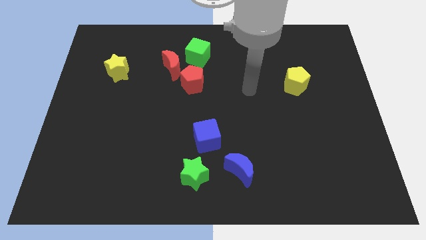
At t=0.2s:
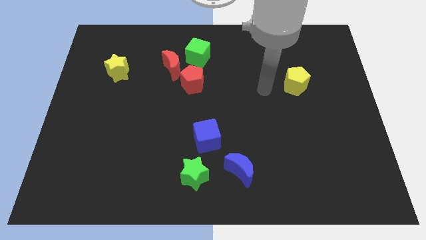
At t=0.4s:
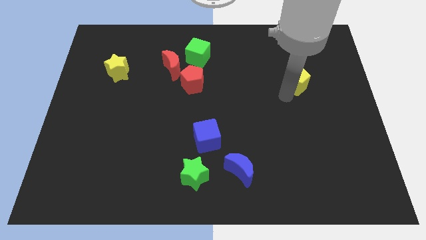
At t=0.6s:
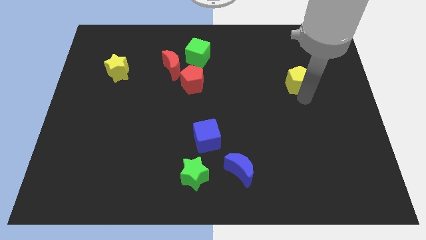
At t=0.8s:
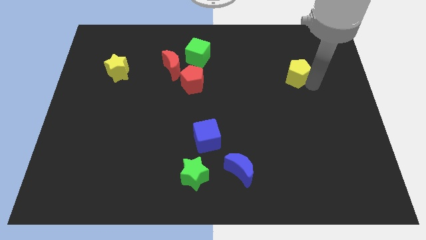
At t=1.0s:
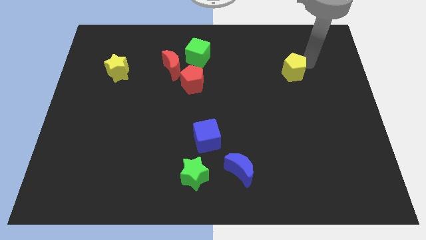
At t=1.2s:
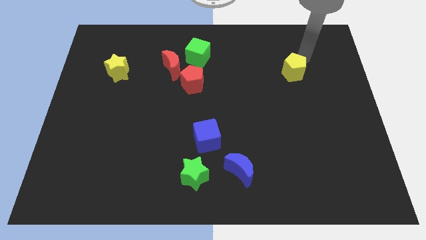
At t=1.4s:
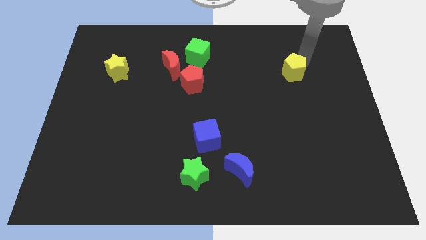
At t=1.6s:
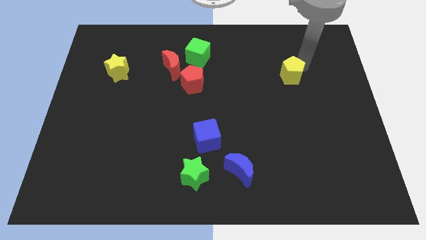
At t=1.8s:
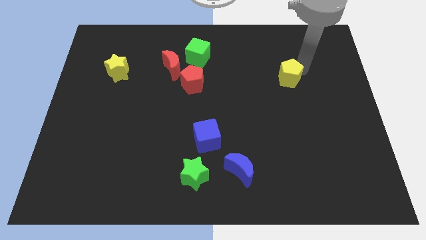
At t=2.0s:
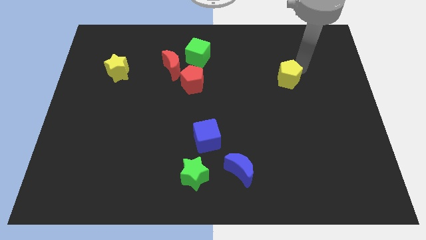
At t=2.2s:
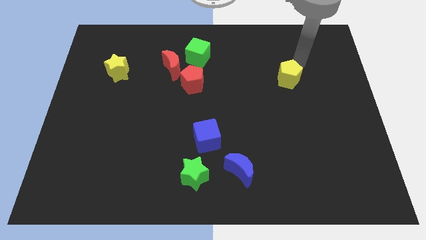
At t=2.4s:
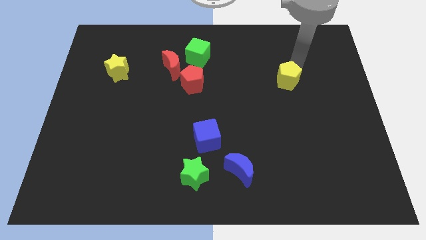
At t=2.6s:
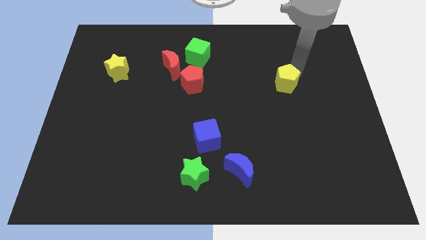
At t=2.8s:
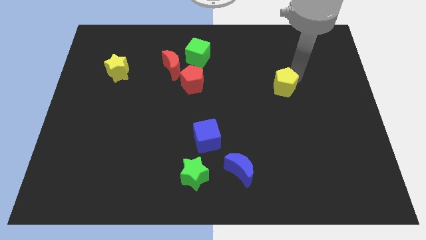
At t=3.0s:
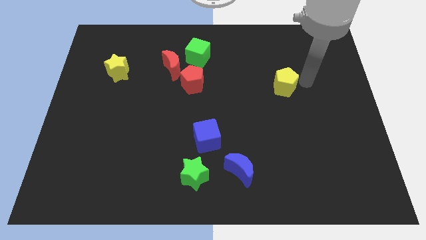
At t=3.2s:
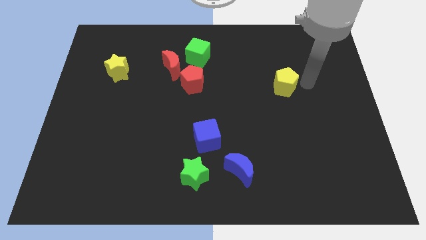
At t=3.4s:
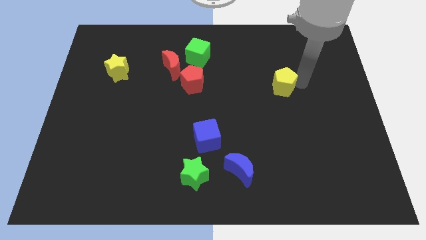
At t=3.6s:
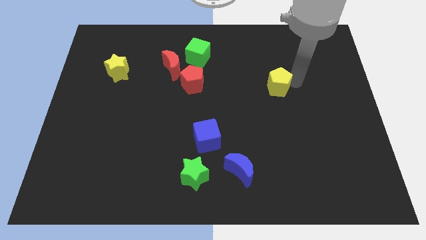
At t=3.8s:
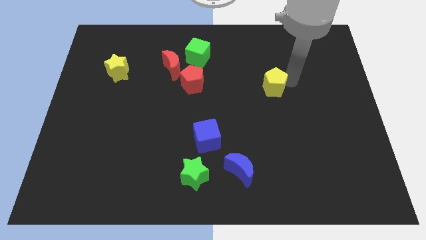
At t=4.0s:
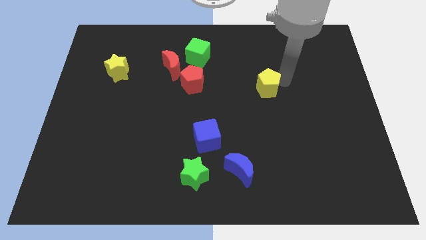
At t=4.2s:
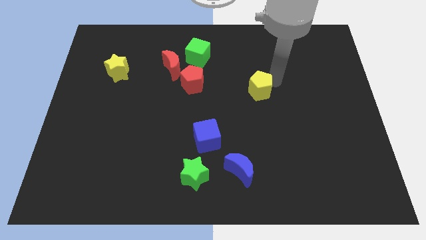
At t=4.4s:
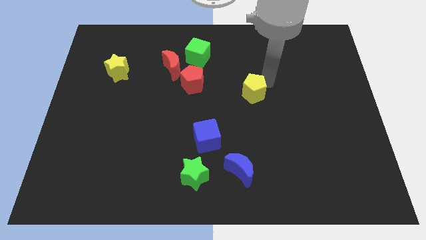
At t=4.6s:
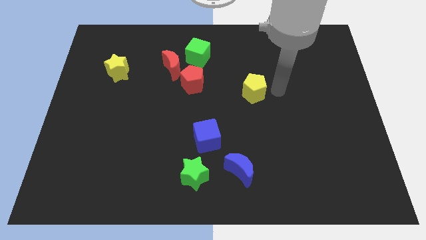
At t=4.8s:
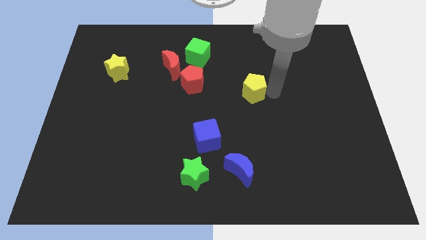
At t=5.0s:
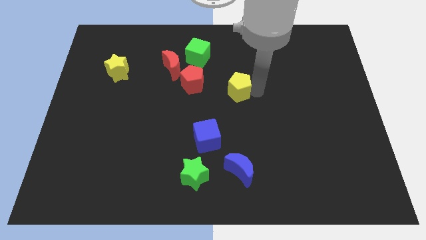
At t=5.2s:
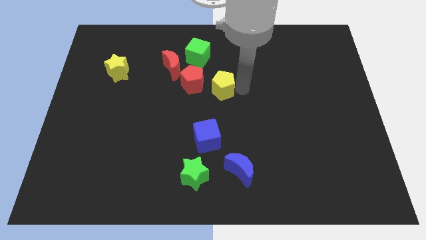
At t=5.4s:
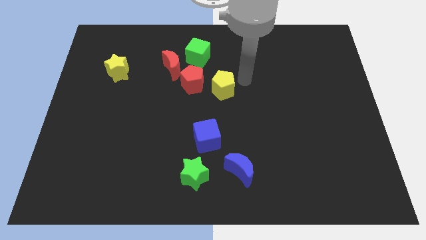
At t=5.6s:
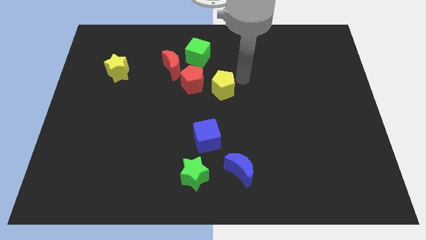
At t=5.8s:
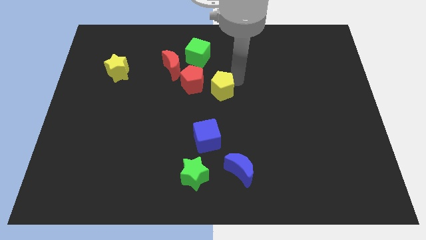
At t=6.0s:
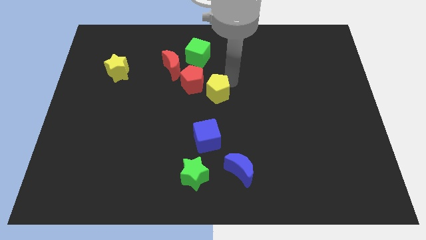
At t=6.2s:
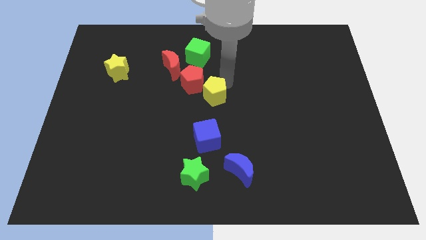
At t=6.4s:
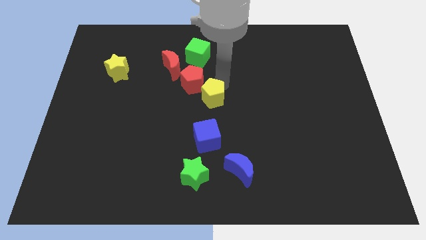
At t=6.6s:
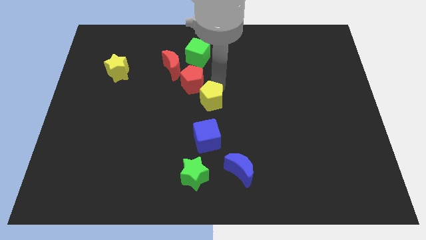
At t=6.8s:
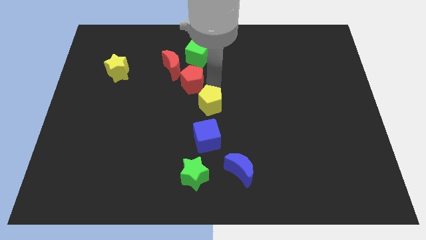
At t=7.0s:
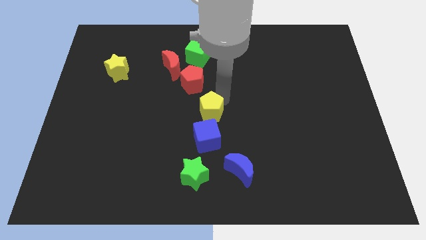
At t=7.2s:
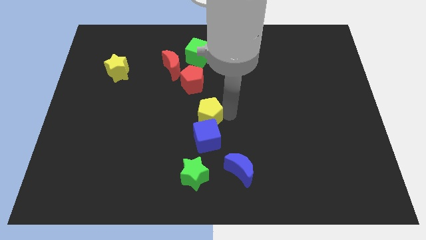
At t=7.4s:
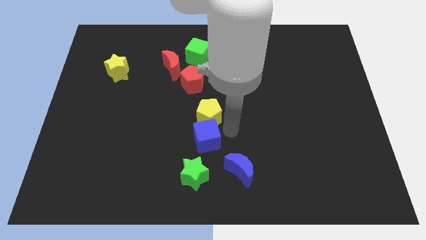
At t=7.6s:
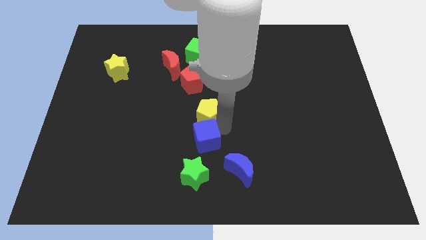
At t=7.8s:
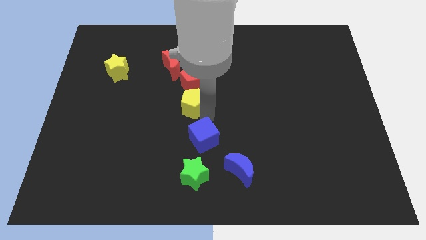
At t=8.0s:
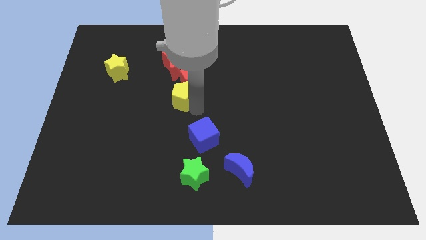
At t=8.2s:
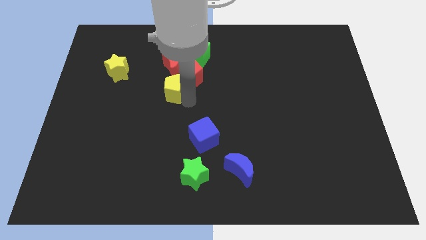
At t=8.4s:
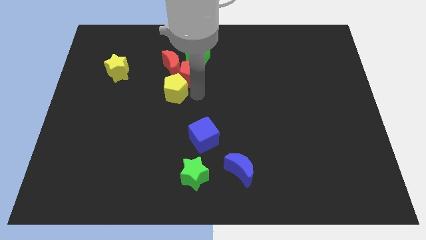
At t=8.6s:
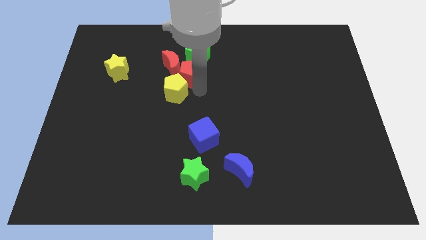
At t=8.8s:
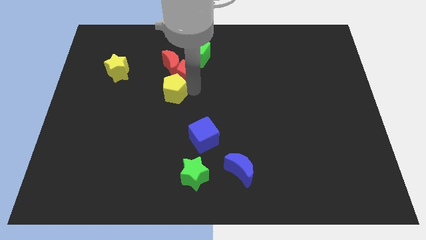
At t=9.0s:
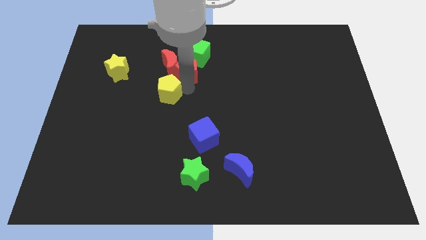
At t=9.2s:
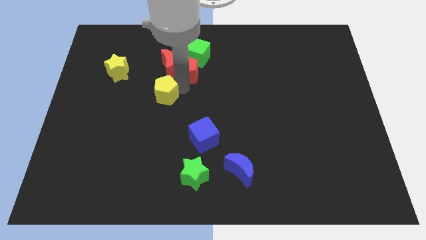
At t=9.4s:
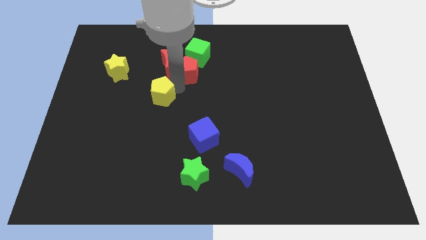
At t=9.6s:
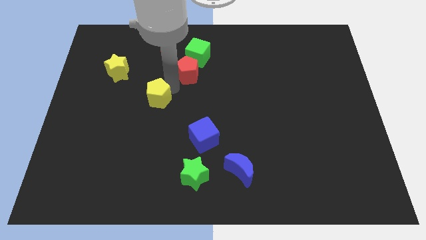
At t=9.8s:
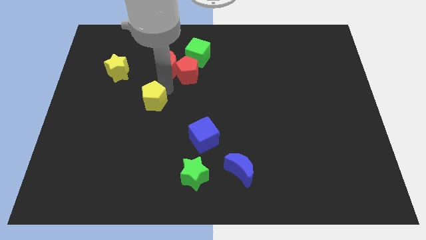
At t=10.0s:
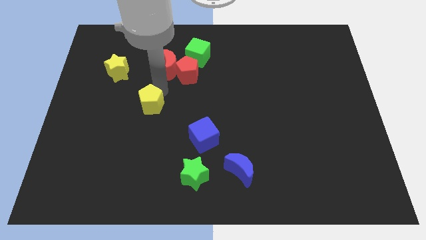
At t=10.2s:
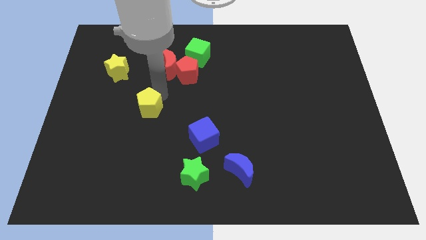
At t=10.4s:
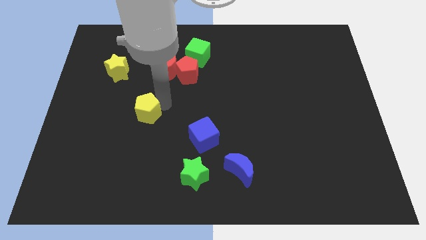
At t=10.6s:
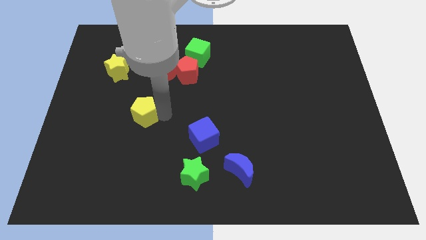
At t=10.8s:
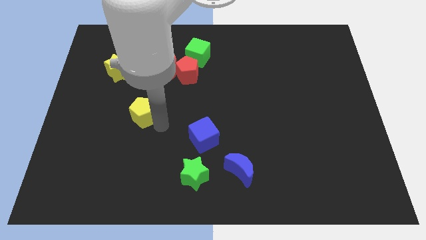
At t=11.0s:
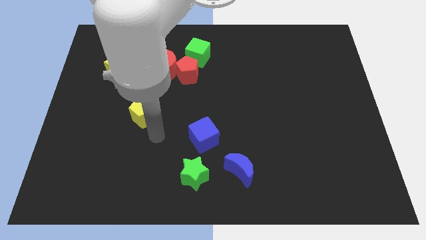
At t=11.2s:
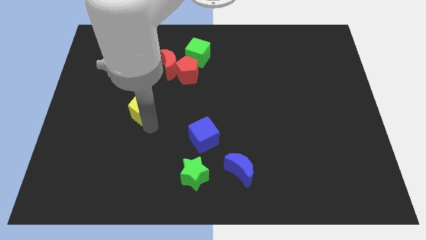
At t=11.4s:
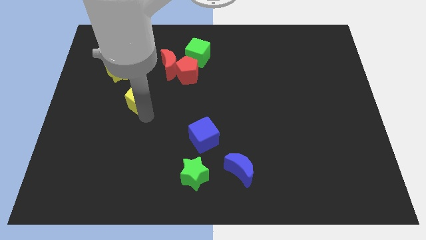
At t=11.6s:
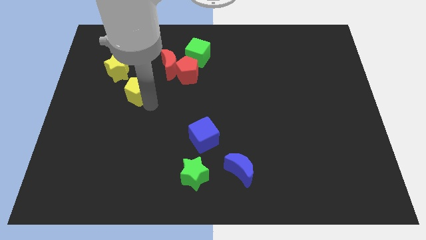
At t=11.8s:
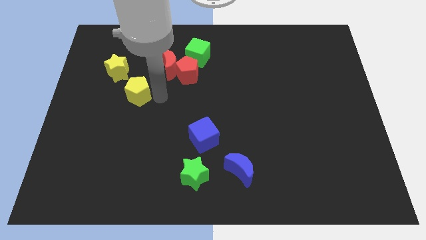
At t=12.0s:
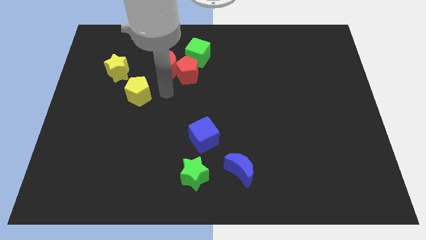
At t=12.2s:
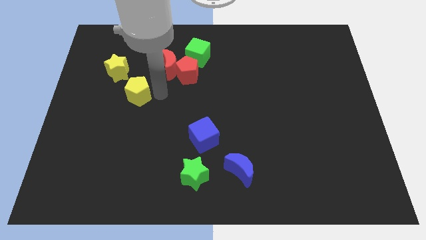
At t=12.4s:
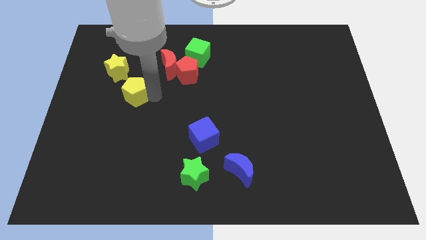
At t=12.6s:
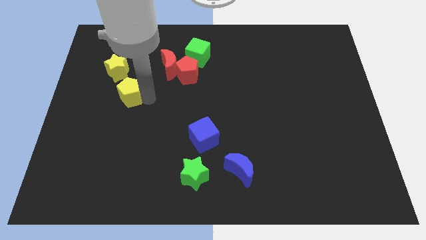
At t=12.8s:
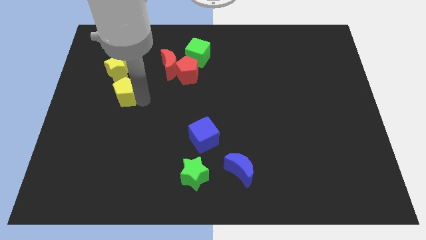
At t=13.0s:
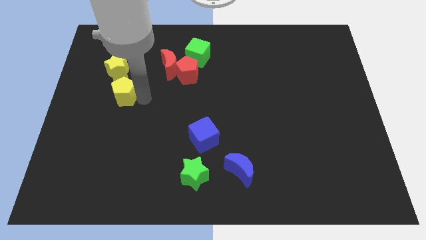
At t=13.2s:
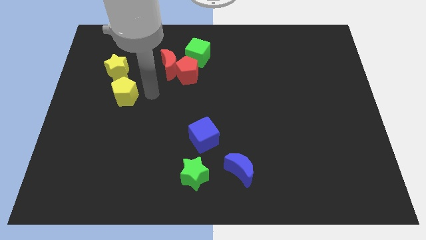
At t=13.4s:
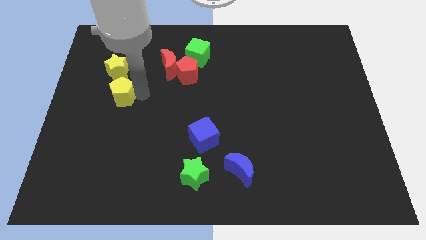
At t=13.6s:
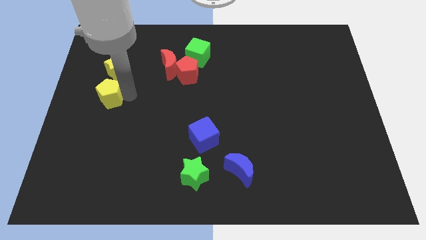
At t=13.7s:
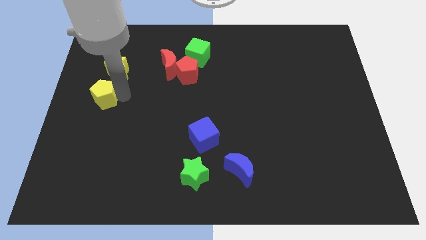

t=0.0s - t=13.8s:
slide the yellow pentagon to the center left
